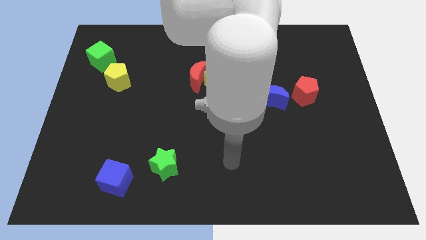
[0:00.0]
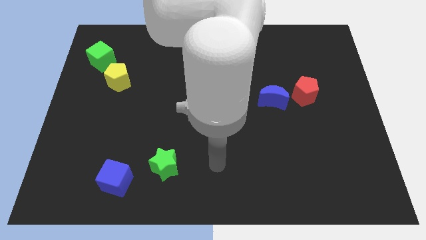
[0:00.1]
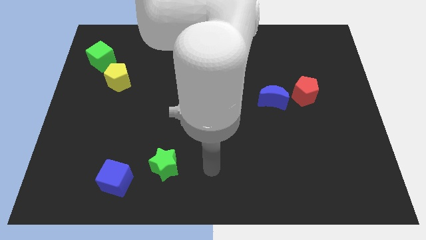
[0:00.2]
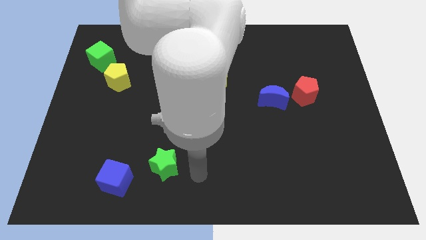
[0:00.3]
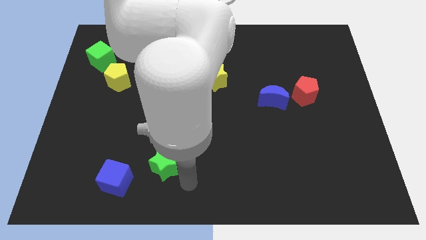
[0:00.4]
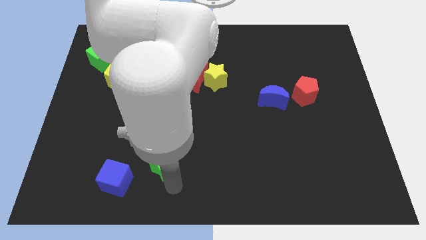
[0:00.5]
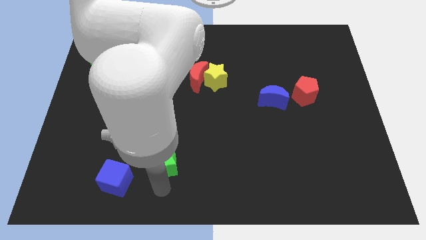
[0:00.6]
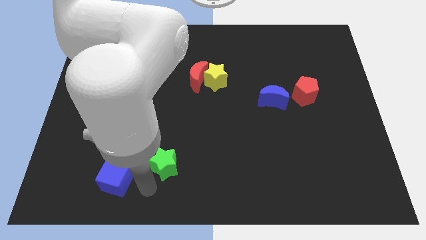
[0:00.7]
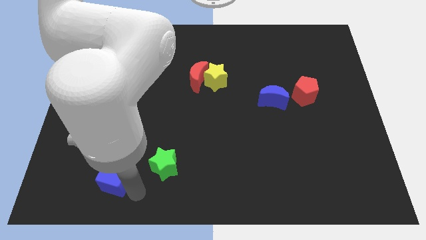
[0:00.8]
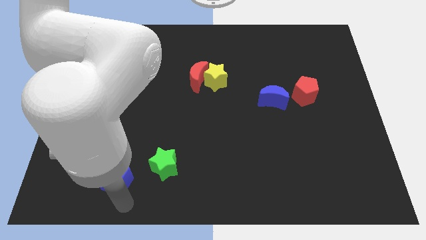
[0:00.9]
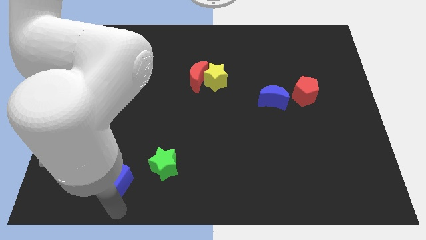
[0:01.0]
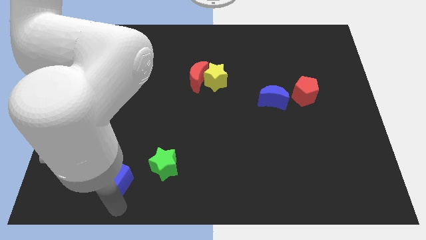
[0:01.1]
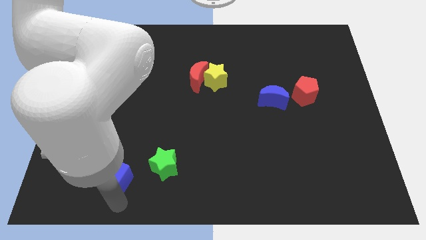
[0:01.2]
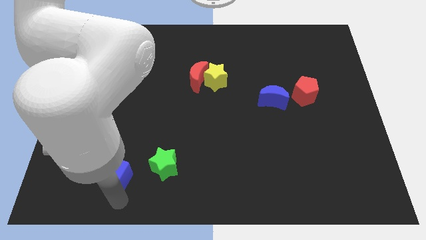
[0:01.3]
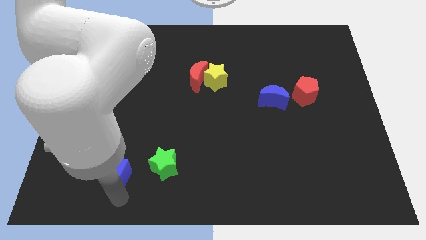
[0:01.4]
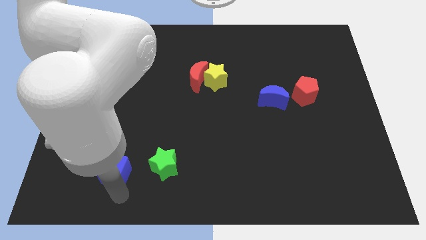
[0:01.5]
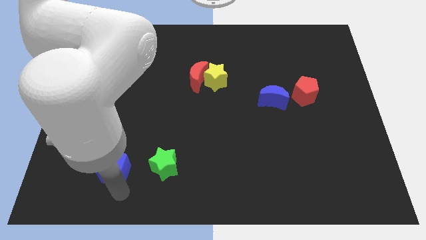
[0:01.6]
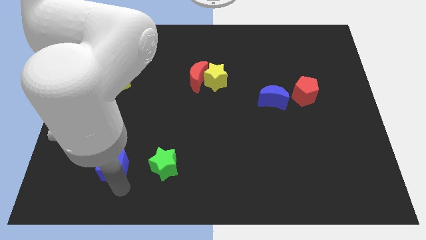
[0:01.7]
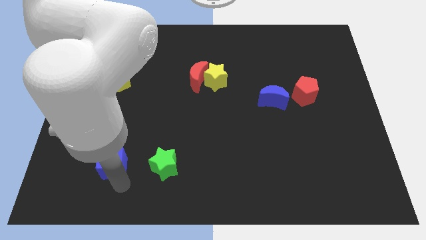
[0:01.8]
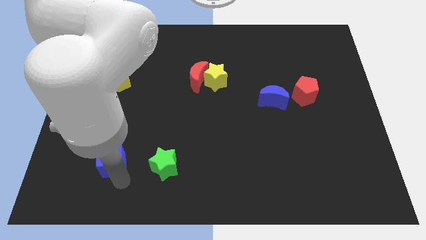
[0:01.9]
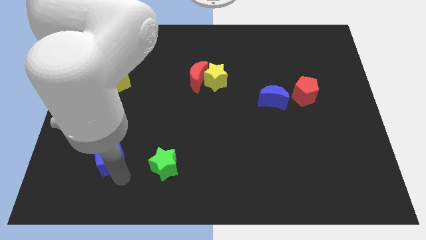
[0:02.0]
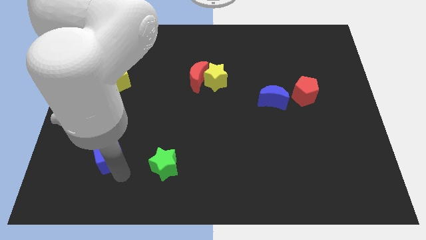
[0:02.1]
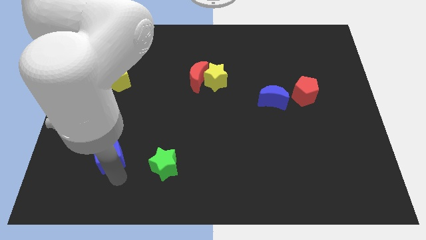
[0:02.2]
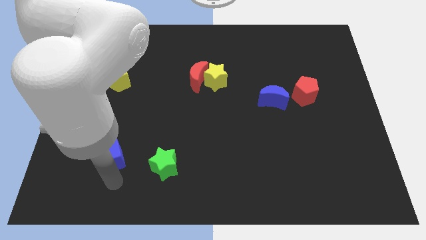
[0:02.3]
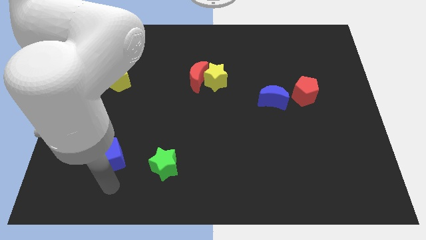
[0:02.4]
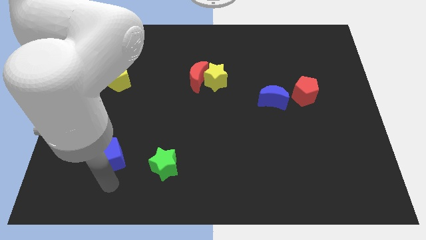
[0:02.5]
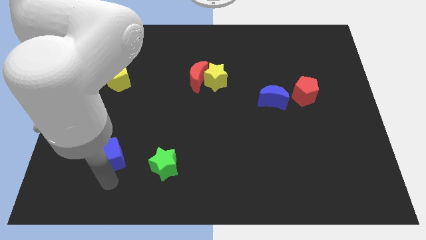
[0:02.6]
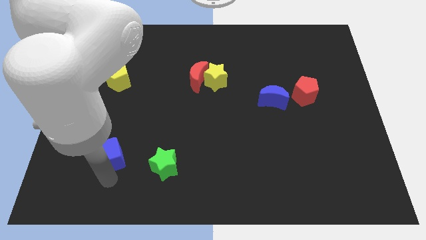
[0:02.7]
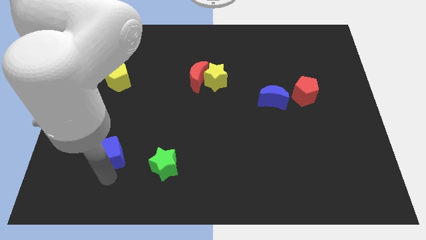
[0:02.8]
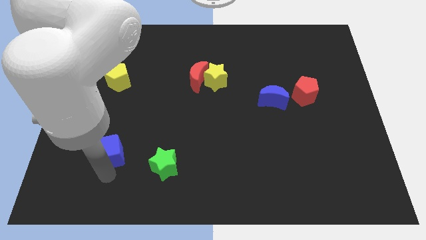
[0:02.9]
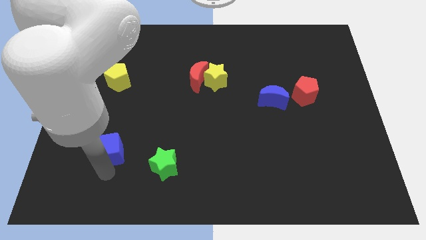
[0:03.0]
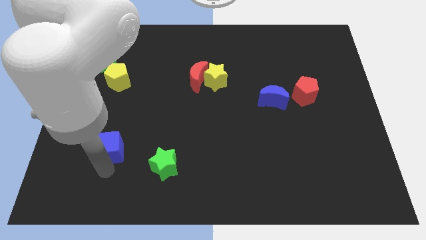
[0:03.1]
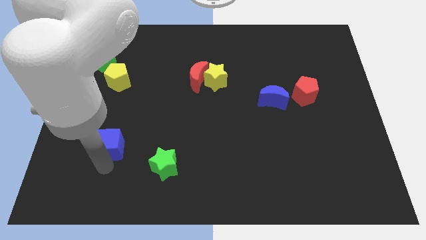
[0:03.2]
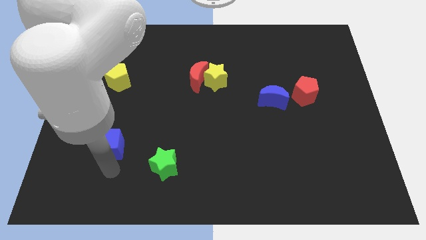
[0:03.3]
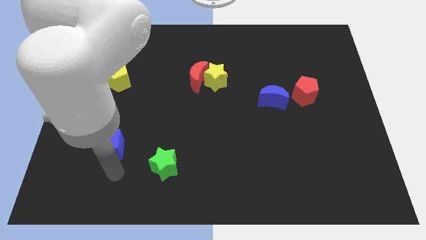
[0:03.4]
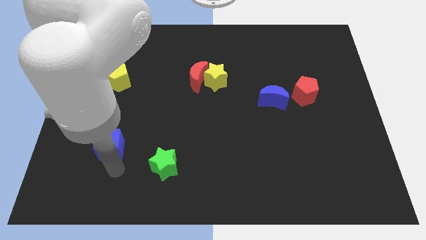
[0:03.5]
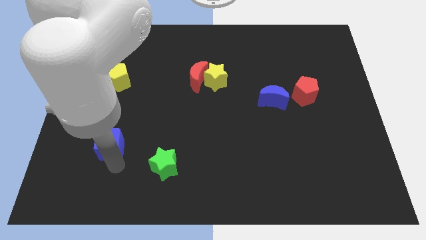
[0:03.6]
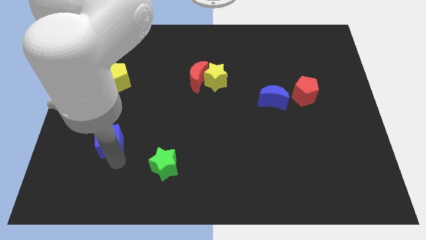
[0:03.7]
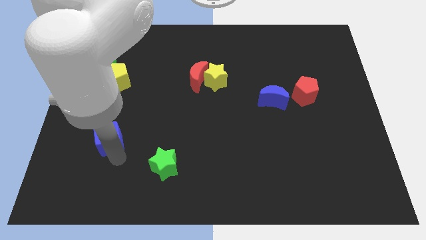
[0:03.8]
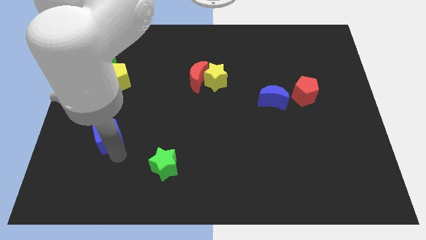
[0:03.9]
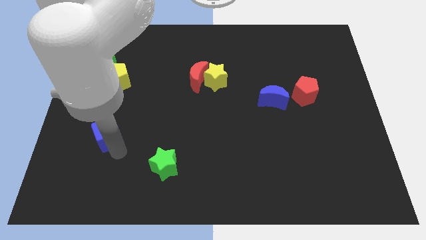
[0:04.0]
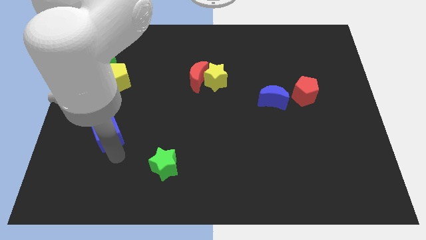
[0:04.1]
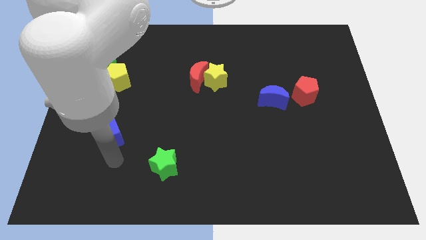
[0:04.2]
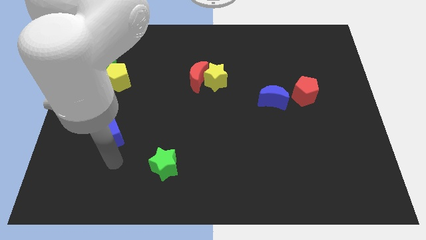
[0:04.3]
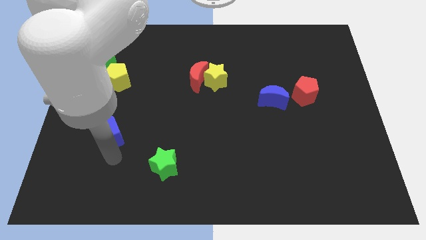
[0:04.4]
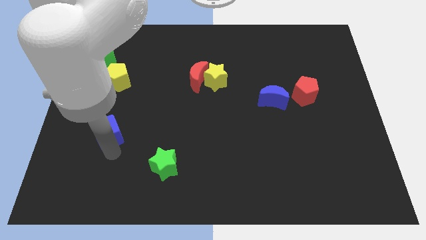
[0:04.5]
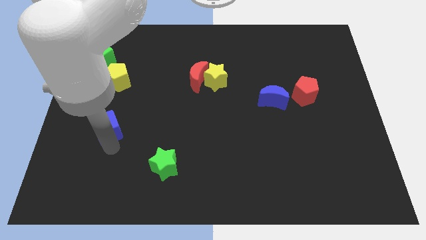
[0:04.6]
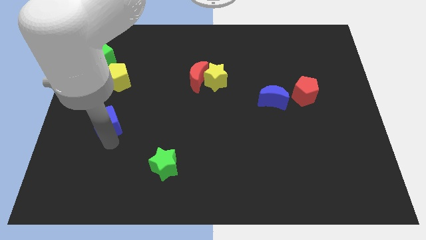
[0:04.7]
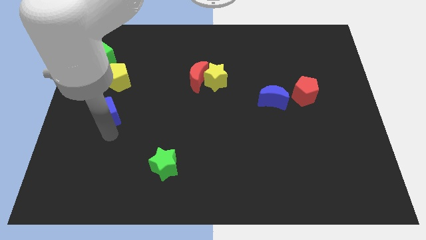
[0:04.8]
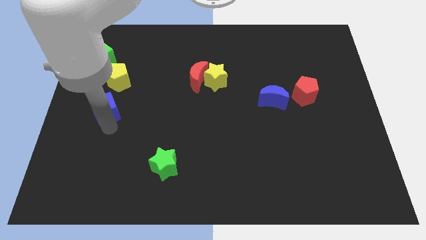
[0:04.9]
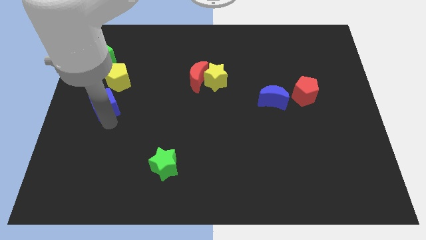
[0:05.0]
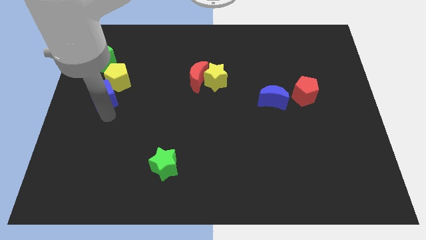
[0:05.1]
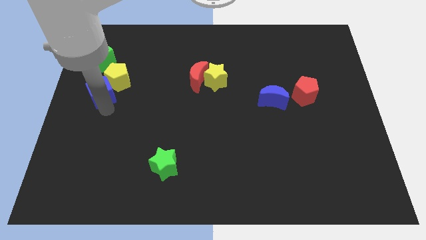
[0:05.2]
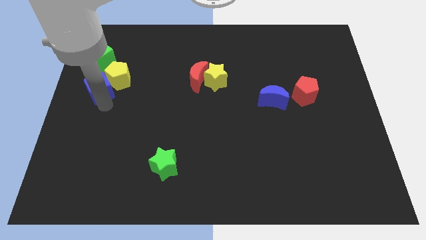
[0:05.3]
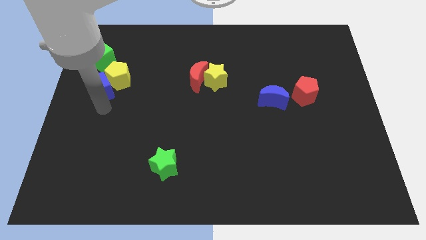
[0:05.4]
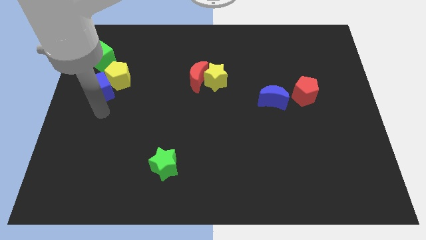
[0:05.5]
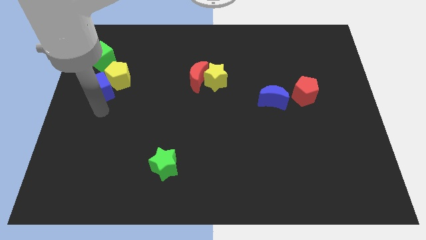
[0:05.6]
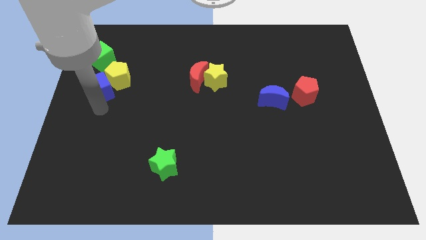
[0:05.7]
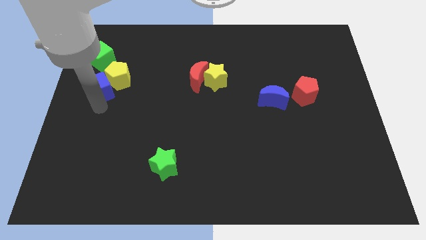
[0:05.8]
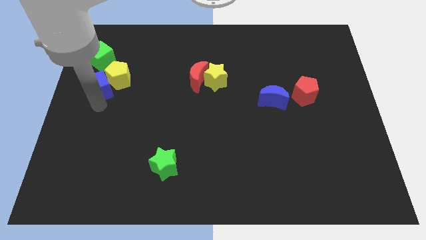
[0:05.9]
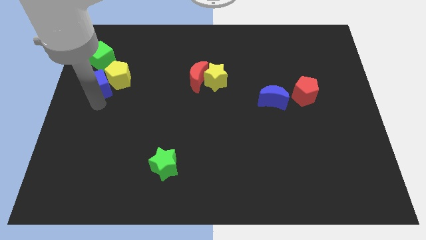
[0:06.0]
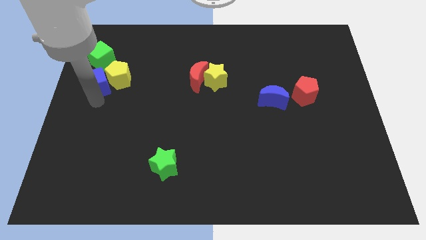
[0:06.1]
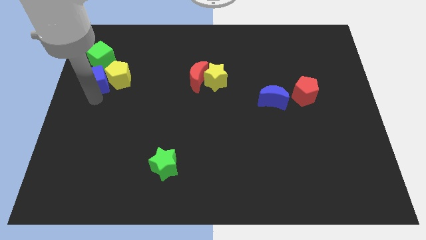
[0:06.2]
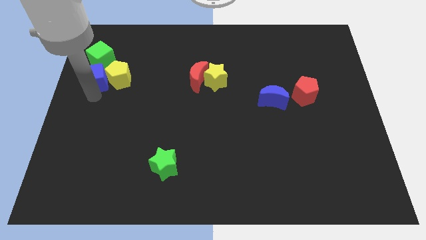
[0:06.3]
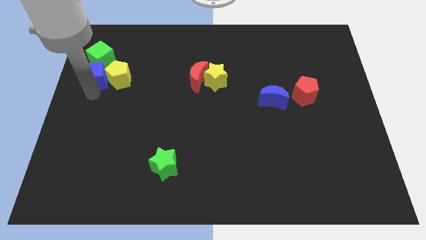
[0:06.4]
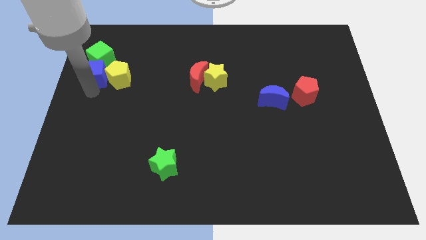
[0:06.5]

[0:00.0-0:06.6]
slide the blue cube towards the green cube
